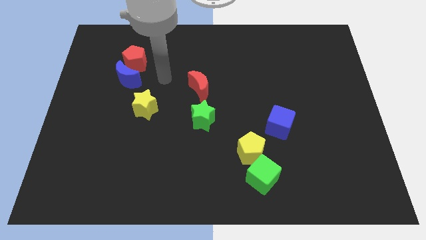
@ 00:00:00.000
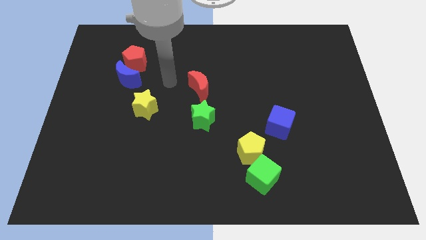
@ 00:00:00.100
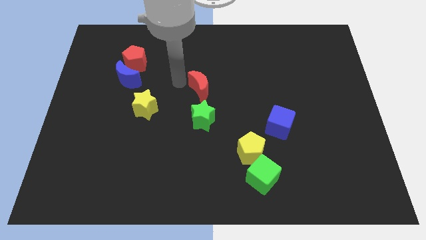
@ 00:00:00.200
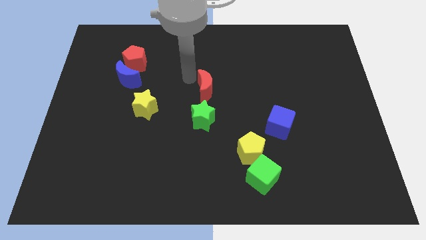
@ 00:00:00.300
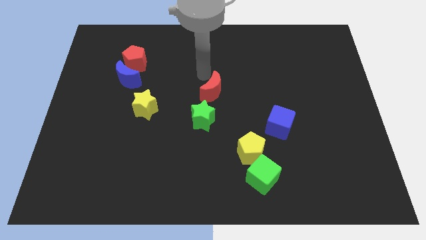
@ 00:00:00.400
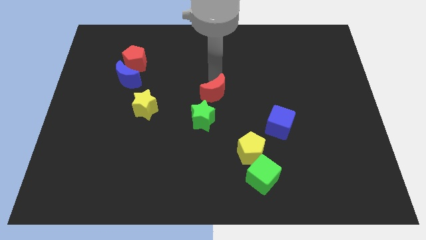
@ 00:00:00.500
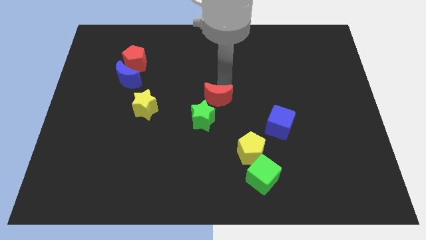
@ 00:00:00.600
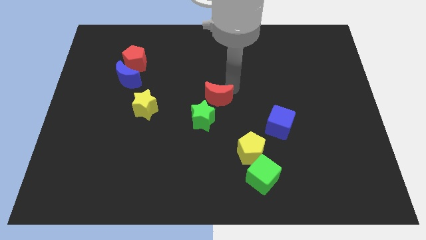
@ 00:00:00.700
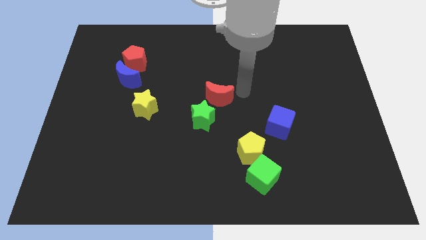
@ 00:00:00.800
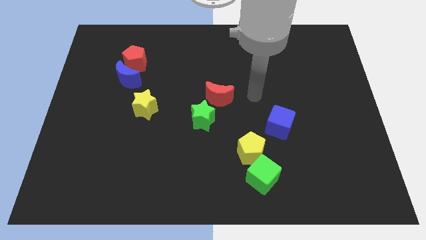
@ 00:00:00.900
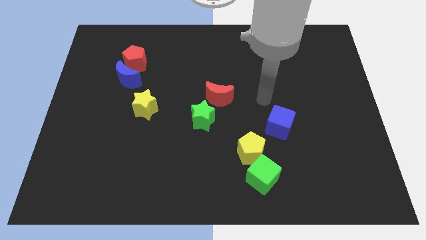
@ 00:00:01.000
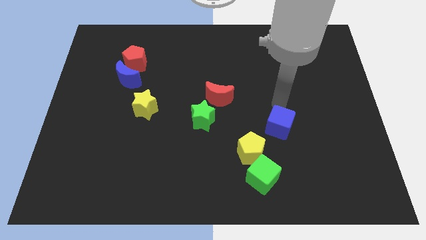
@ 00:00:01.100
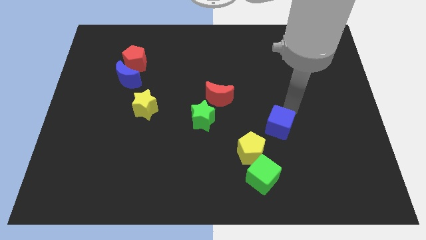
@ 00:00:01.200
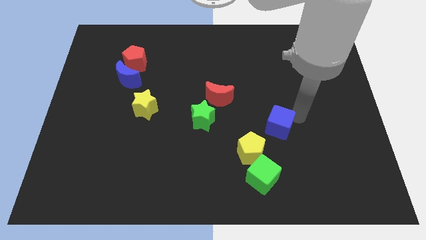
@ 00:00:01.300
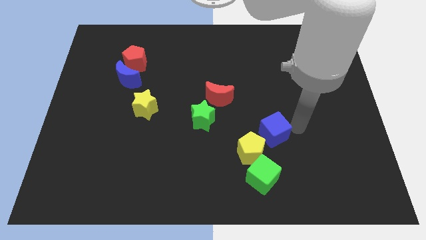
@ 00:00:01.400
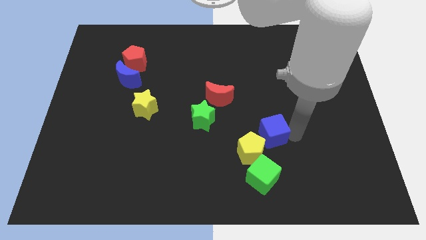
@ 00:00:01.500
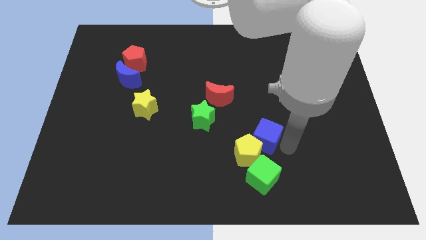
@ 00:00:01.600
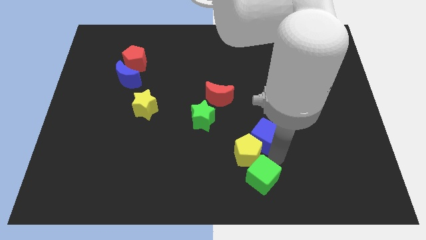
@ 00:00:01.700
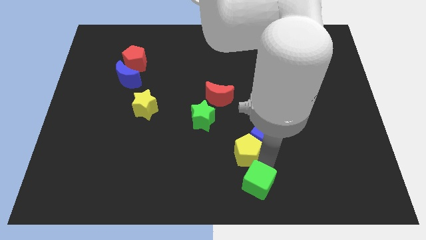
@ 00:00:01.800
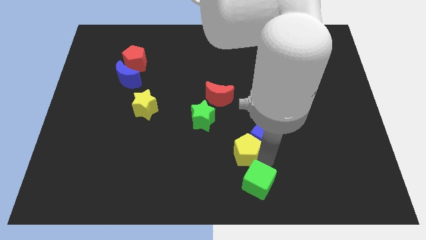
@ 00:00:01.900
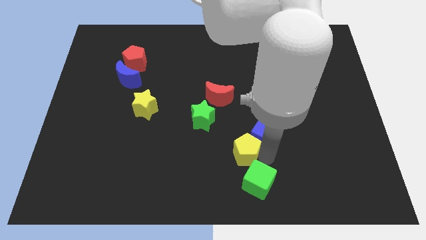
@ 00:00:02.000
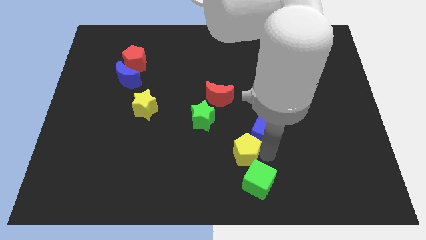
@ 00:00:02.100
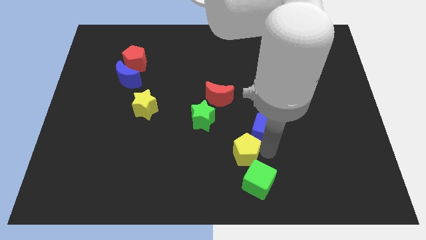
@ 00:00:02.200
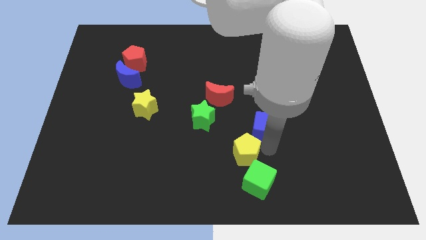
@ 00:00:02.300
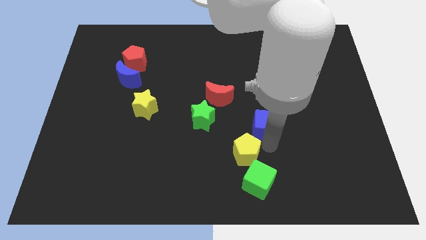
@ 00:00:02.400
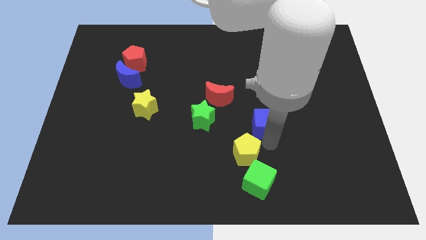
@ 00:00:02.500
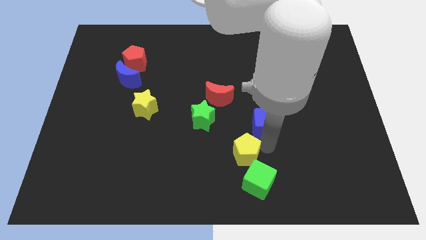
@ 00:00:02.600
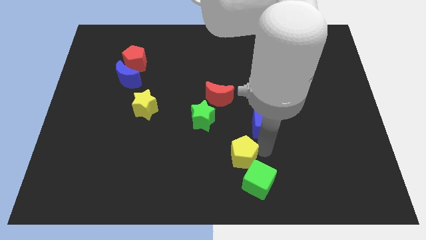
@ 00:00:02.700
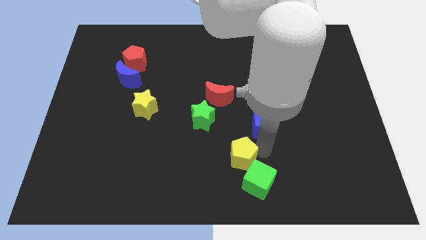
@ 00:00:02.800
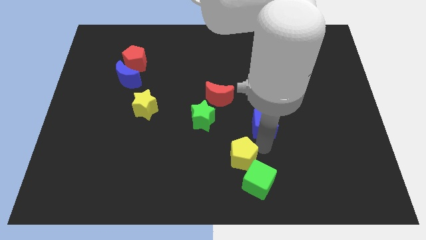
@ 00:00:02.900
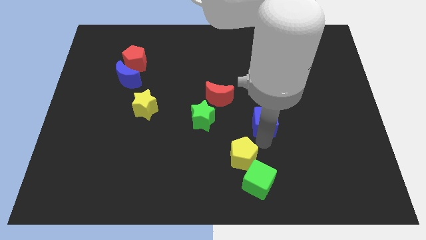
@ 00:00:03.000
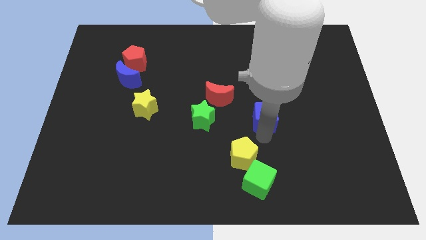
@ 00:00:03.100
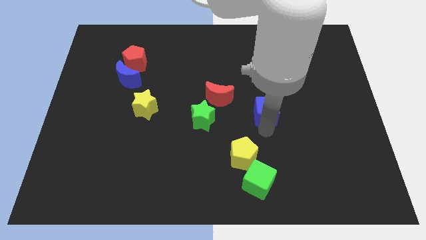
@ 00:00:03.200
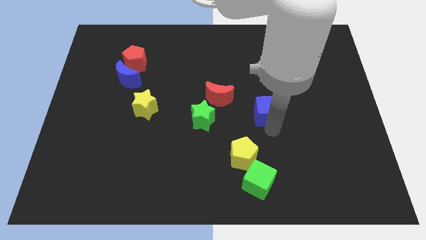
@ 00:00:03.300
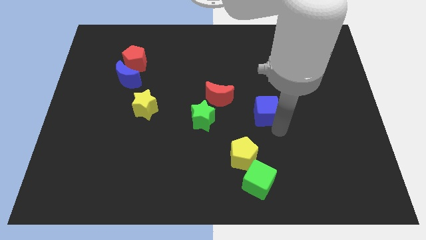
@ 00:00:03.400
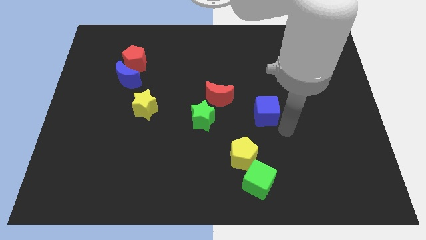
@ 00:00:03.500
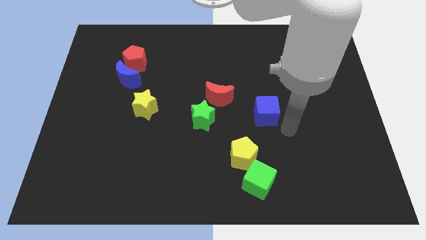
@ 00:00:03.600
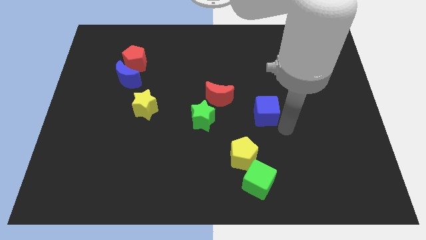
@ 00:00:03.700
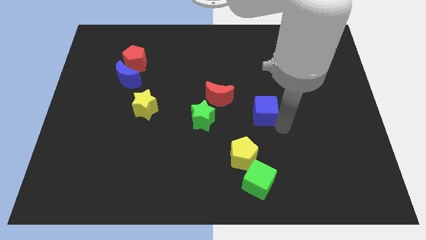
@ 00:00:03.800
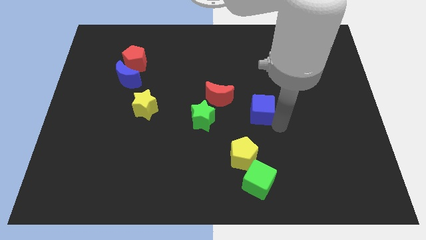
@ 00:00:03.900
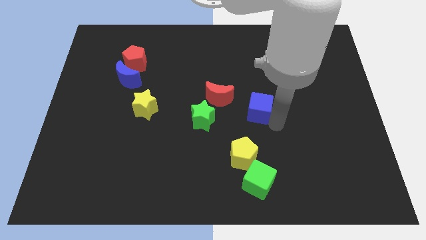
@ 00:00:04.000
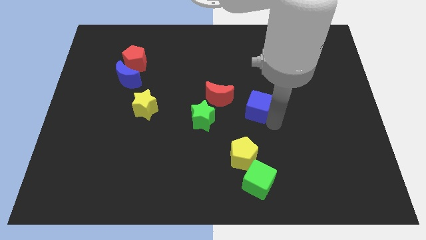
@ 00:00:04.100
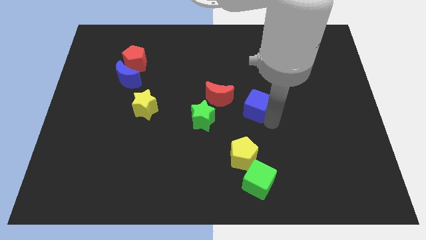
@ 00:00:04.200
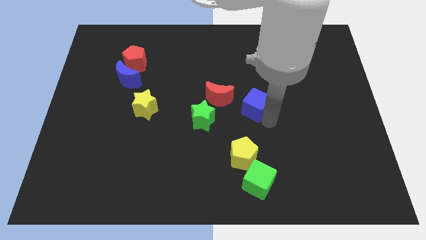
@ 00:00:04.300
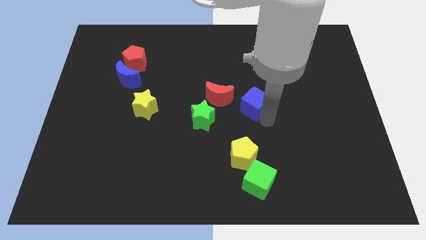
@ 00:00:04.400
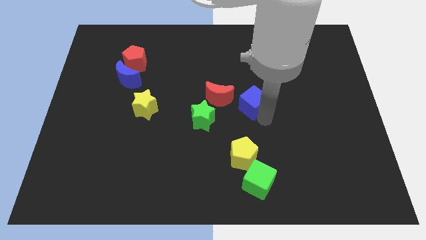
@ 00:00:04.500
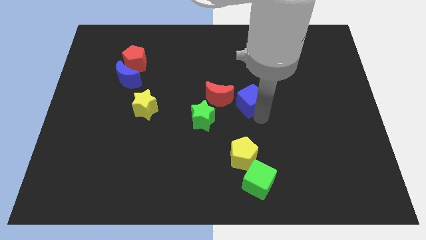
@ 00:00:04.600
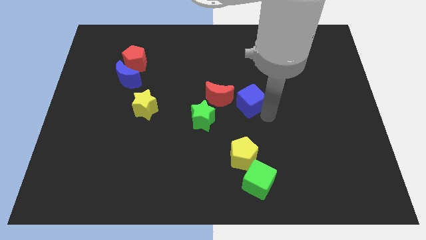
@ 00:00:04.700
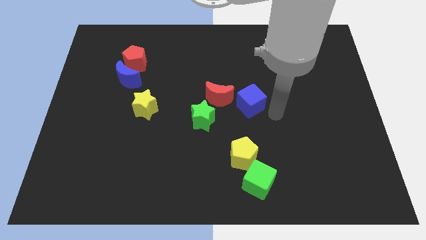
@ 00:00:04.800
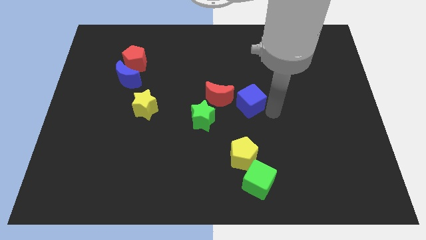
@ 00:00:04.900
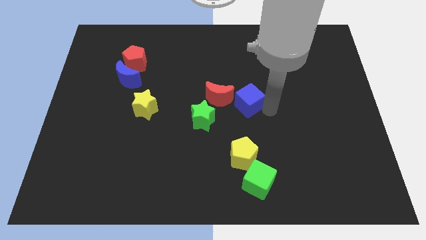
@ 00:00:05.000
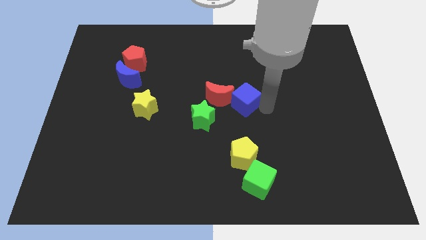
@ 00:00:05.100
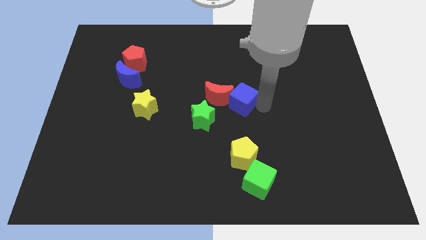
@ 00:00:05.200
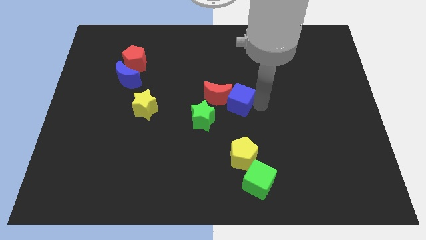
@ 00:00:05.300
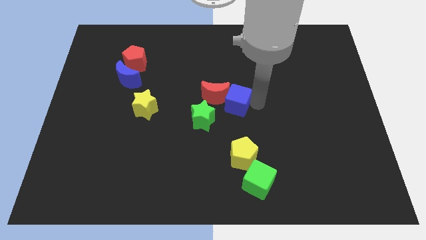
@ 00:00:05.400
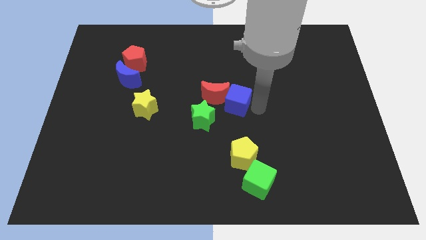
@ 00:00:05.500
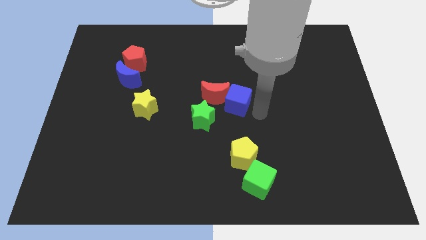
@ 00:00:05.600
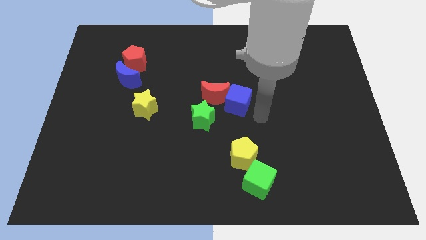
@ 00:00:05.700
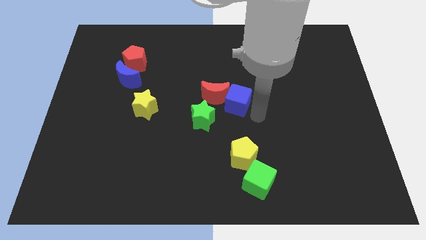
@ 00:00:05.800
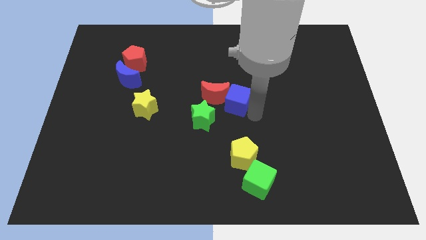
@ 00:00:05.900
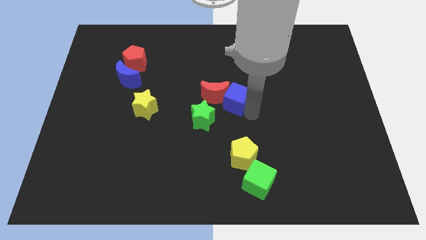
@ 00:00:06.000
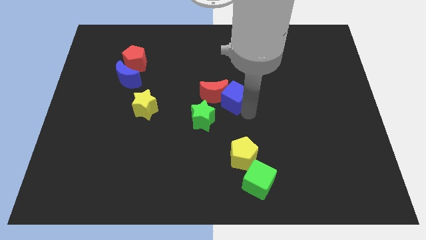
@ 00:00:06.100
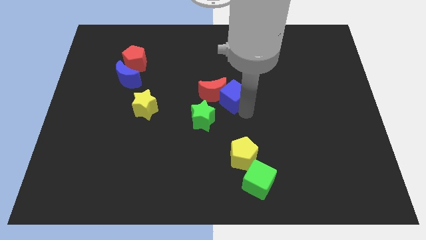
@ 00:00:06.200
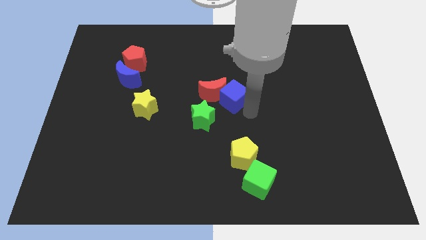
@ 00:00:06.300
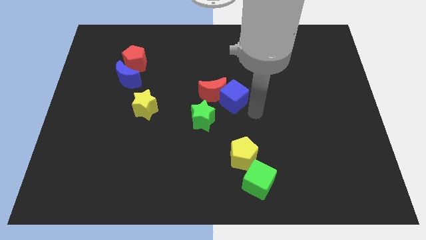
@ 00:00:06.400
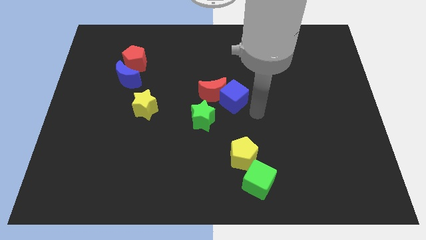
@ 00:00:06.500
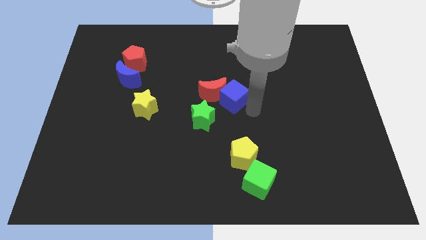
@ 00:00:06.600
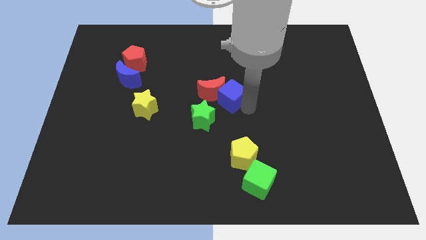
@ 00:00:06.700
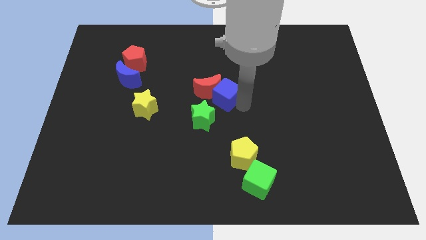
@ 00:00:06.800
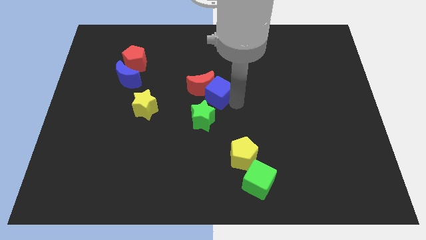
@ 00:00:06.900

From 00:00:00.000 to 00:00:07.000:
push the blue cube to the top of the green star
